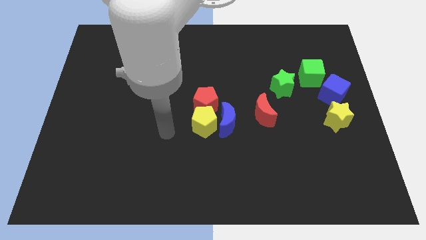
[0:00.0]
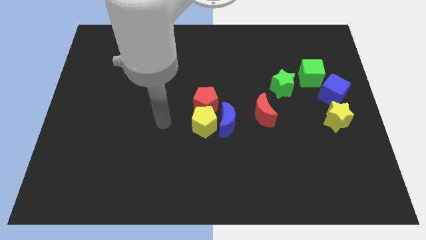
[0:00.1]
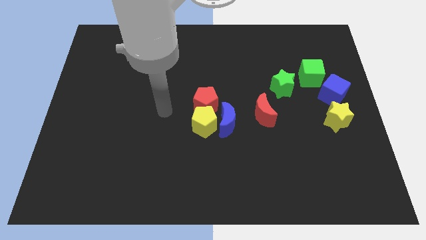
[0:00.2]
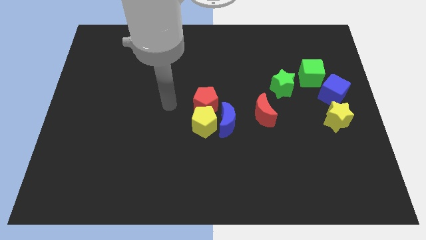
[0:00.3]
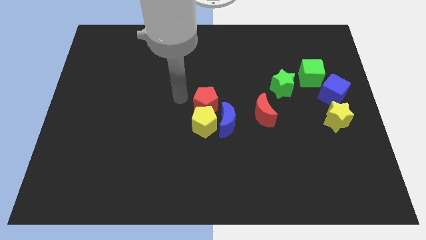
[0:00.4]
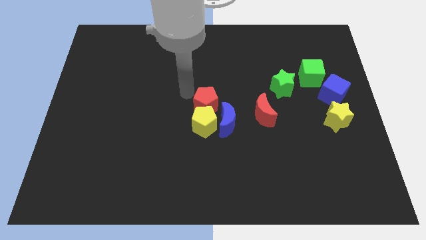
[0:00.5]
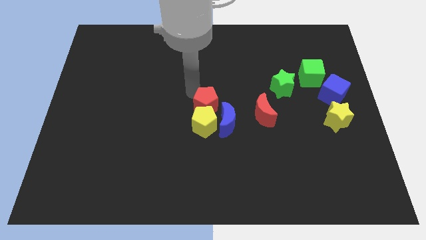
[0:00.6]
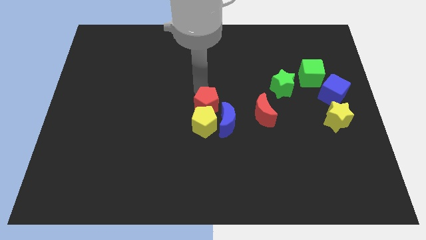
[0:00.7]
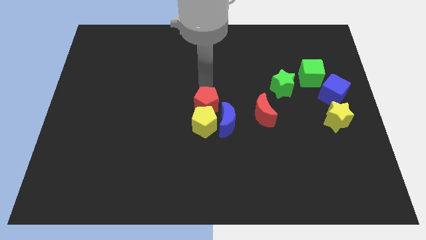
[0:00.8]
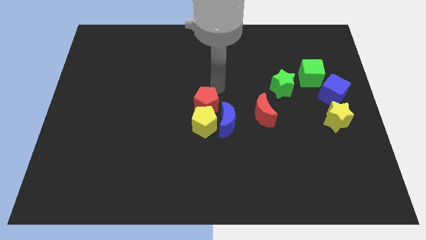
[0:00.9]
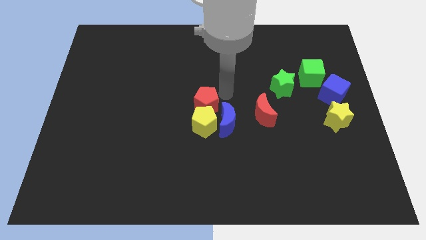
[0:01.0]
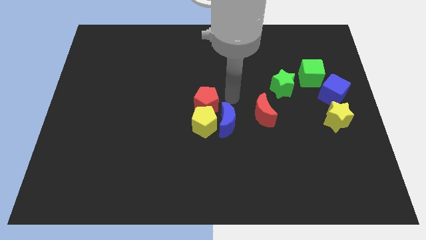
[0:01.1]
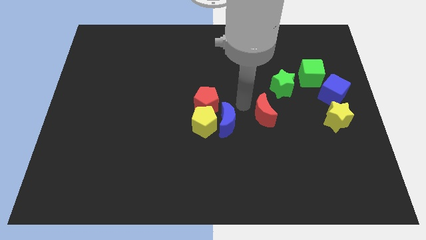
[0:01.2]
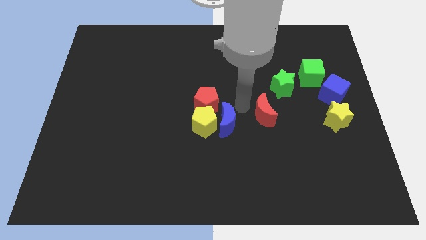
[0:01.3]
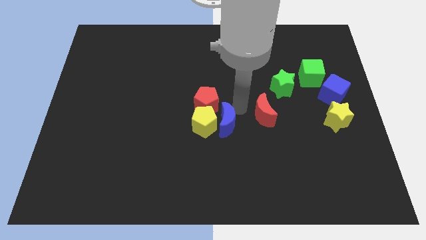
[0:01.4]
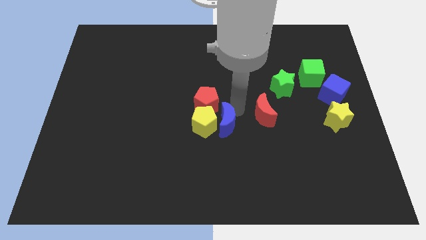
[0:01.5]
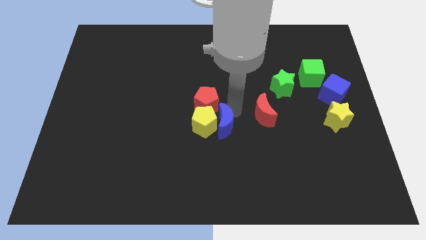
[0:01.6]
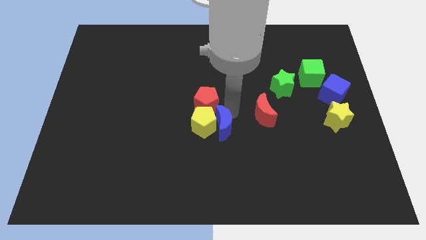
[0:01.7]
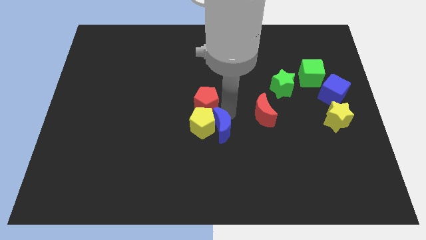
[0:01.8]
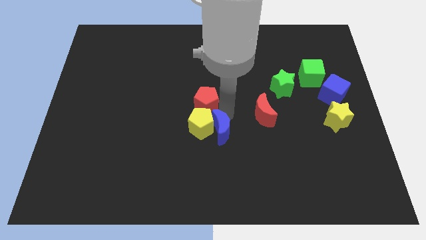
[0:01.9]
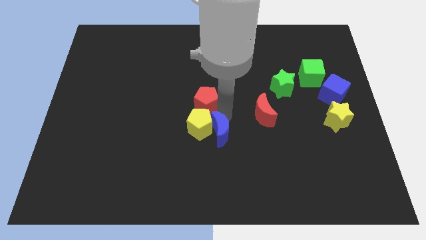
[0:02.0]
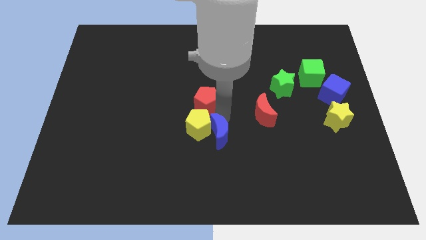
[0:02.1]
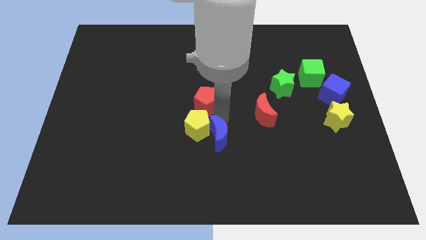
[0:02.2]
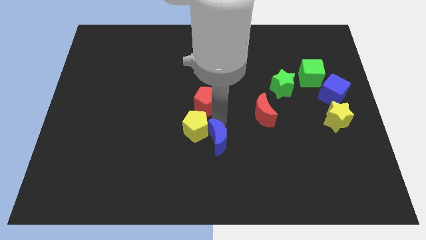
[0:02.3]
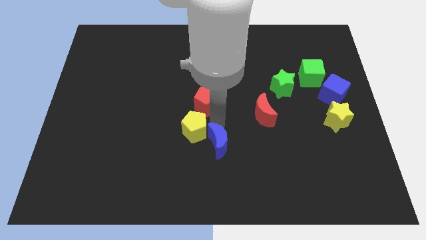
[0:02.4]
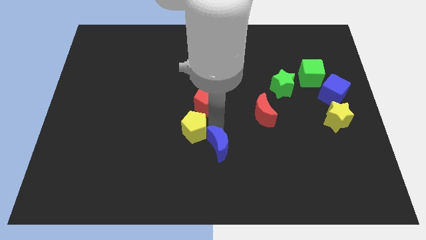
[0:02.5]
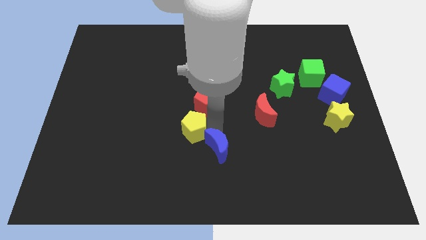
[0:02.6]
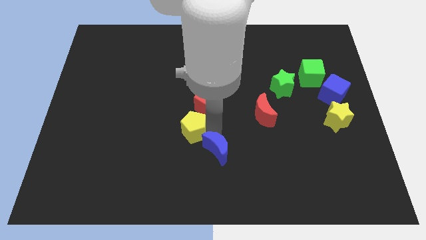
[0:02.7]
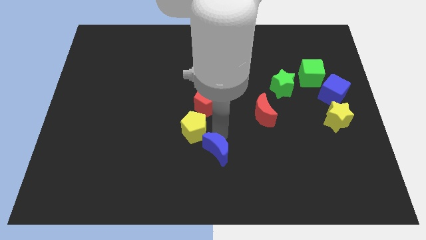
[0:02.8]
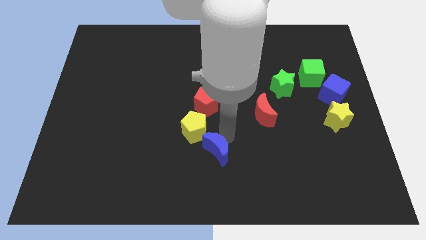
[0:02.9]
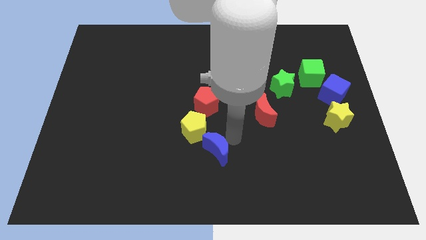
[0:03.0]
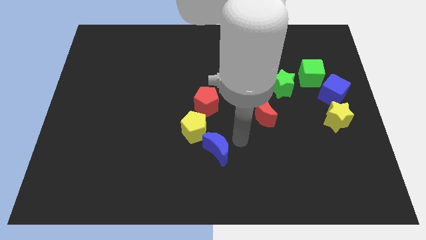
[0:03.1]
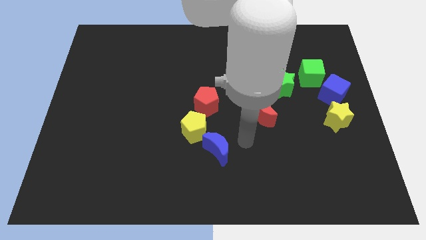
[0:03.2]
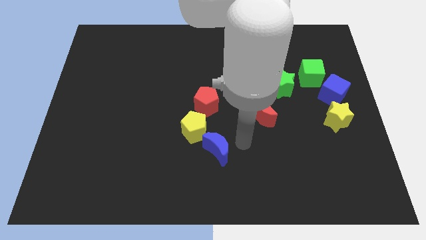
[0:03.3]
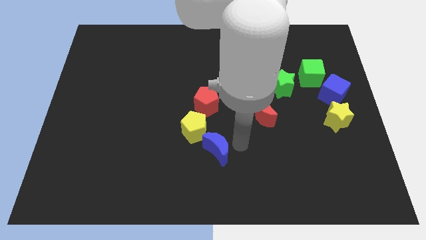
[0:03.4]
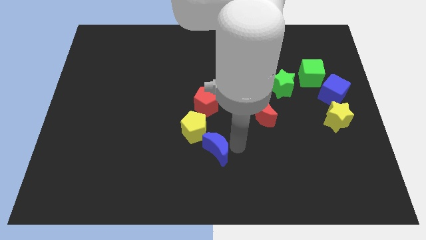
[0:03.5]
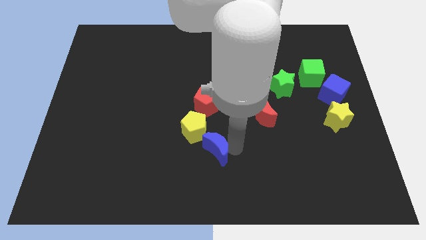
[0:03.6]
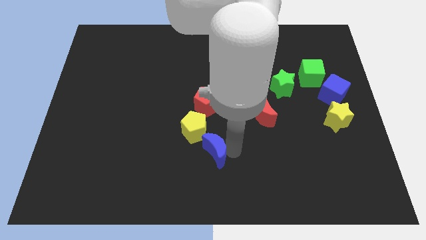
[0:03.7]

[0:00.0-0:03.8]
slightly push the blue moon downwards and to the left diagonally

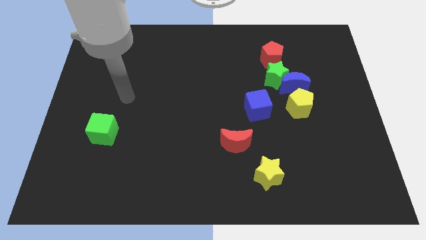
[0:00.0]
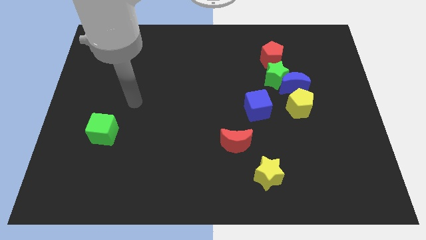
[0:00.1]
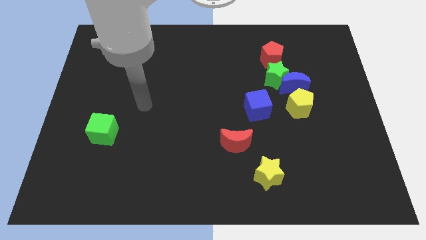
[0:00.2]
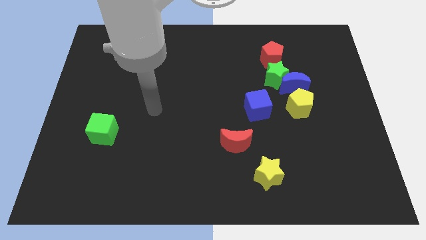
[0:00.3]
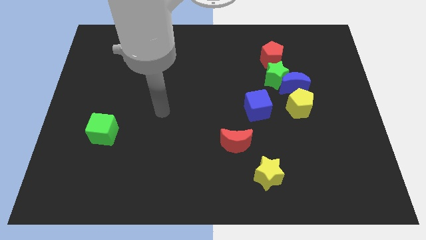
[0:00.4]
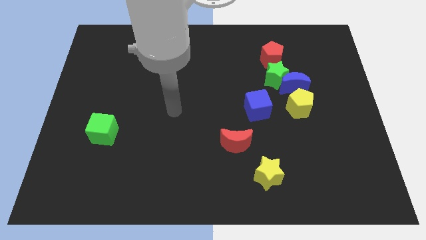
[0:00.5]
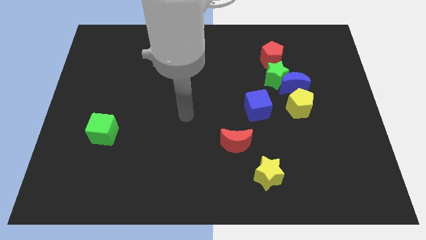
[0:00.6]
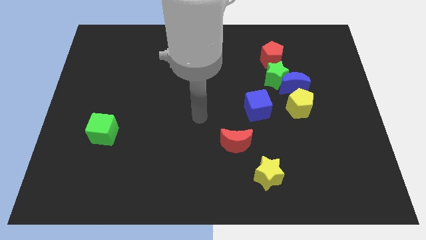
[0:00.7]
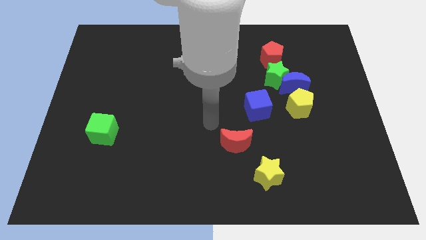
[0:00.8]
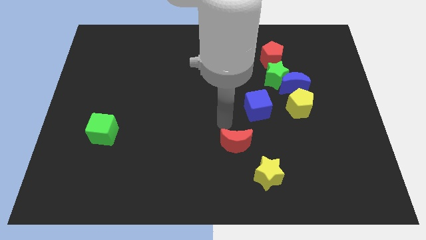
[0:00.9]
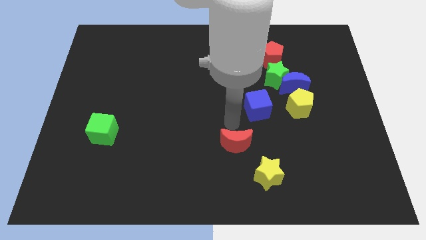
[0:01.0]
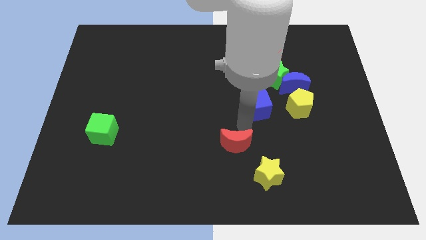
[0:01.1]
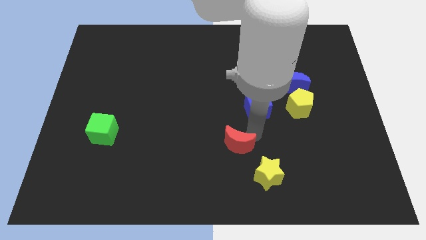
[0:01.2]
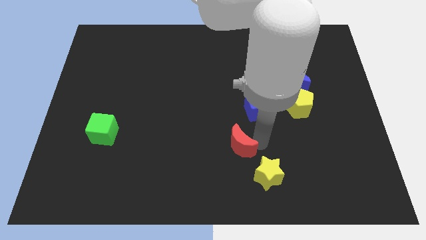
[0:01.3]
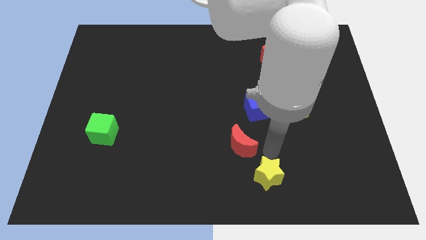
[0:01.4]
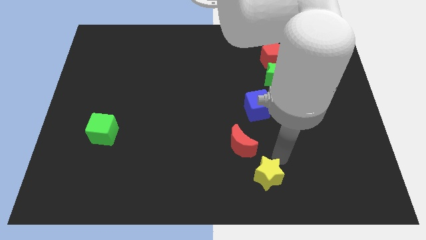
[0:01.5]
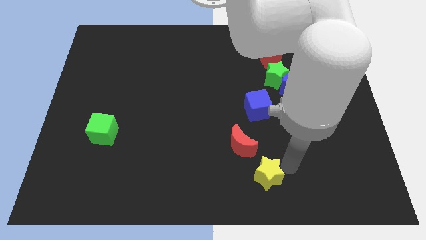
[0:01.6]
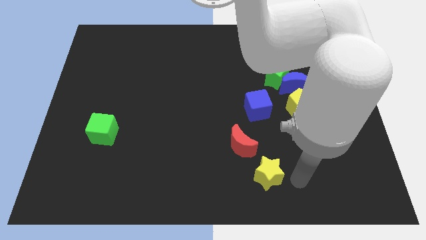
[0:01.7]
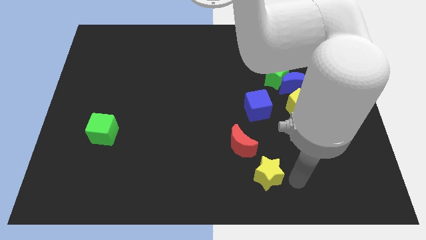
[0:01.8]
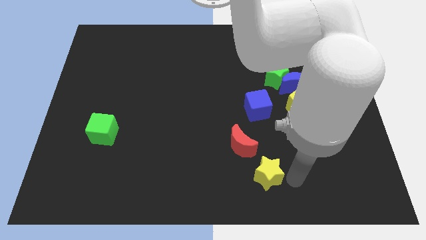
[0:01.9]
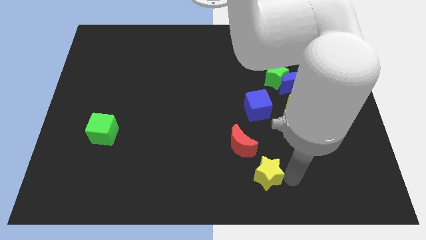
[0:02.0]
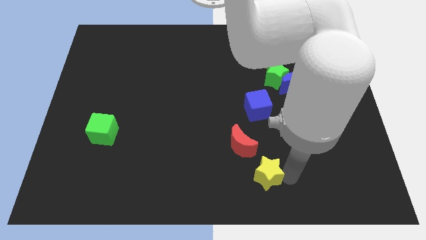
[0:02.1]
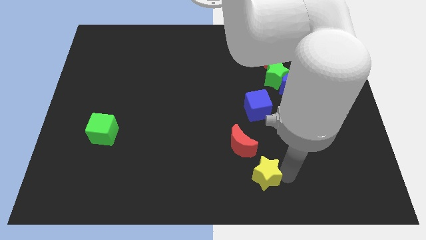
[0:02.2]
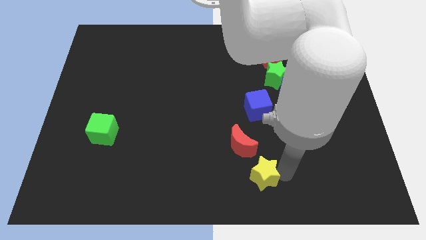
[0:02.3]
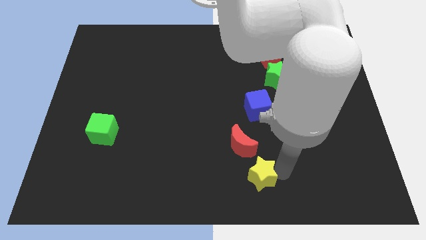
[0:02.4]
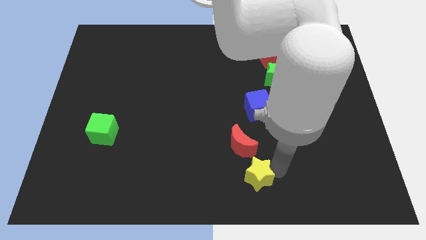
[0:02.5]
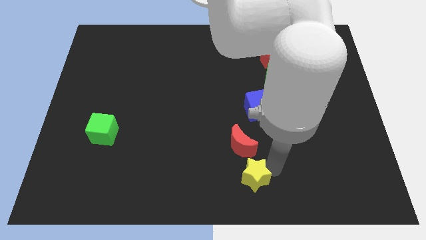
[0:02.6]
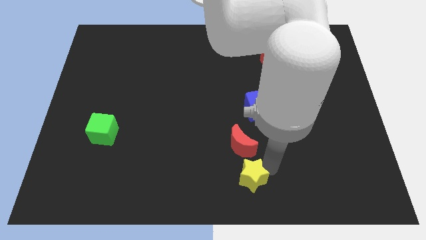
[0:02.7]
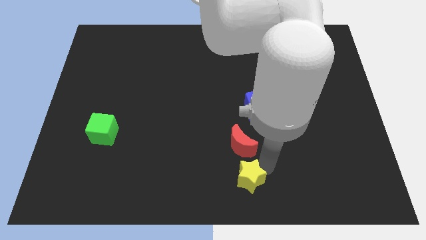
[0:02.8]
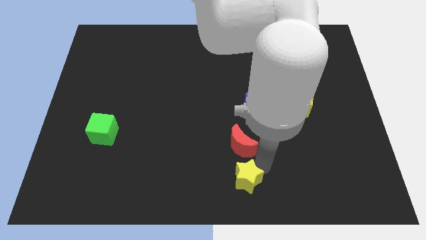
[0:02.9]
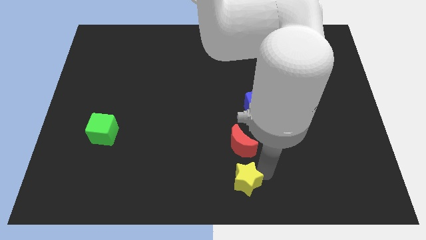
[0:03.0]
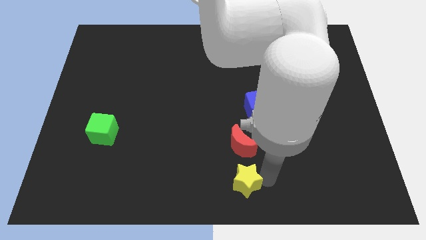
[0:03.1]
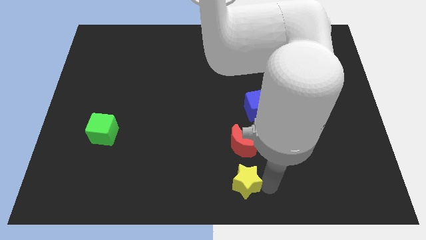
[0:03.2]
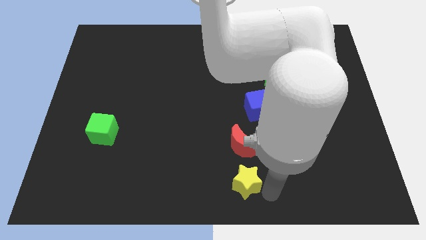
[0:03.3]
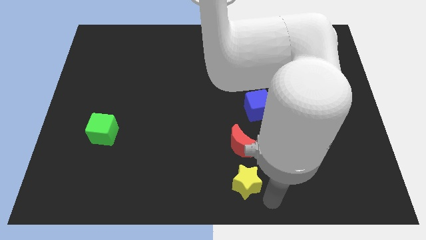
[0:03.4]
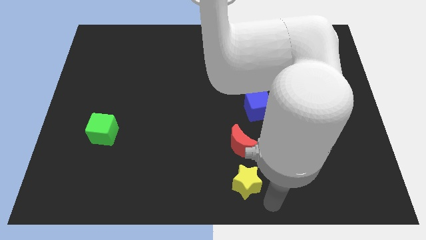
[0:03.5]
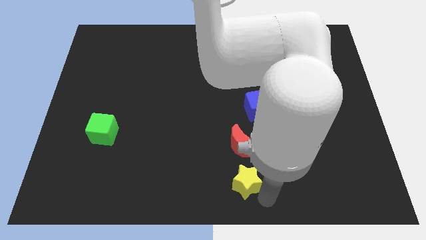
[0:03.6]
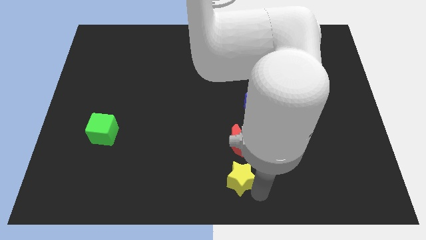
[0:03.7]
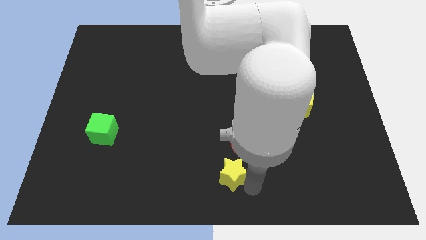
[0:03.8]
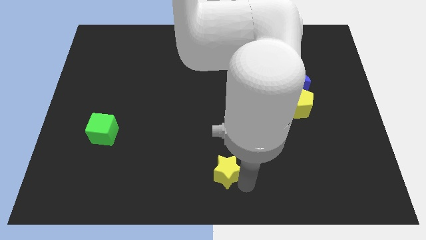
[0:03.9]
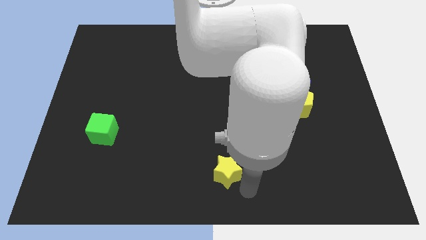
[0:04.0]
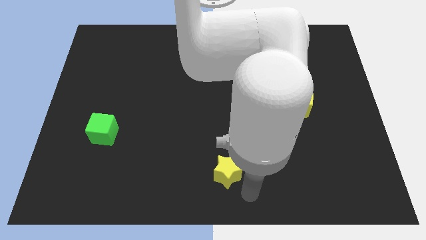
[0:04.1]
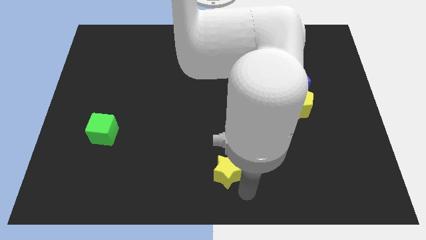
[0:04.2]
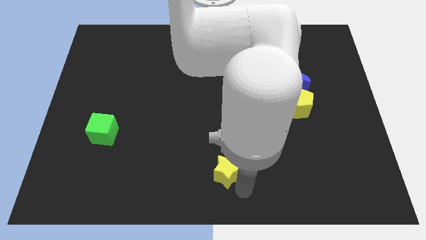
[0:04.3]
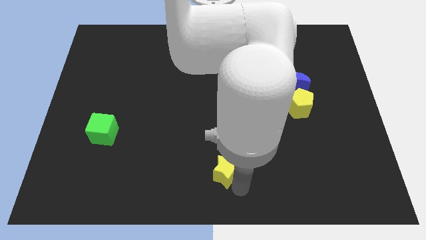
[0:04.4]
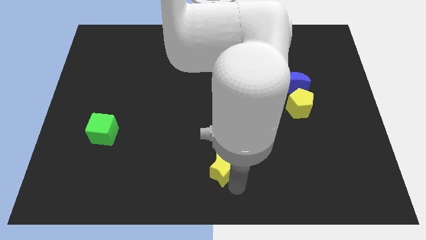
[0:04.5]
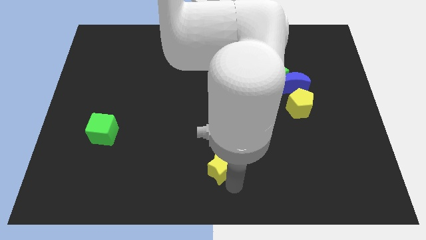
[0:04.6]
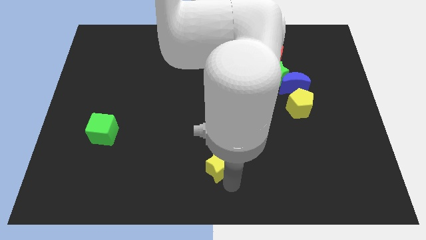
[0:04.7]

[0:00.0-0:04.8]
slightly move the yellow star up and then left
